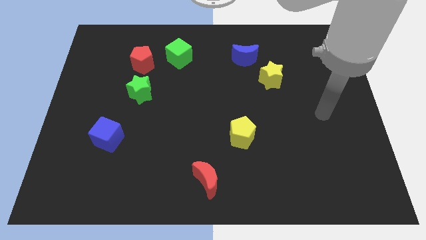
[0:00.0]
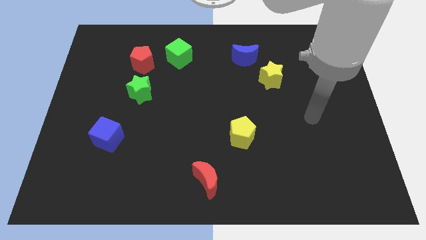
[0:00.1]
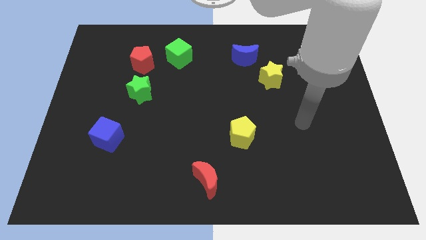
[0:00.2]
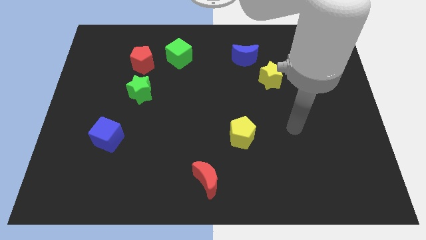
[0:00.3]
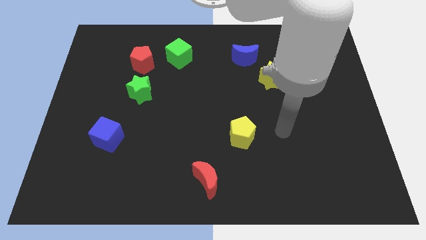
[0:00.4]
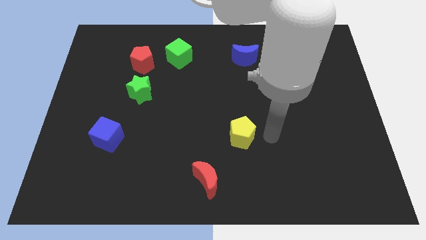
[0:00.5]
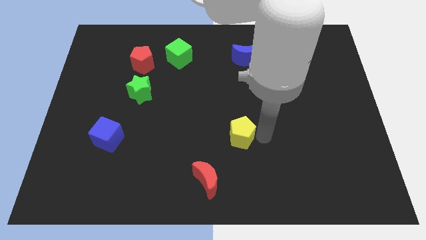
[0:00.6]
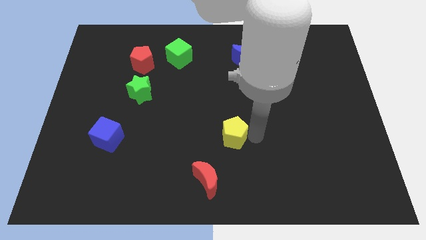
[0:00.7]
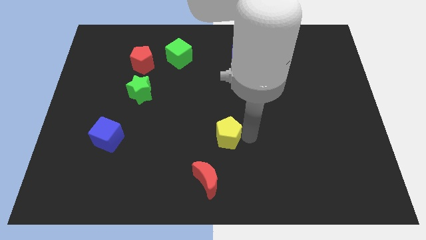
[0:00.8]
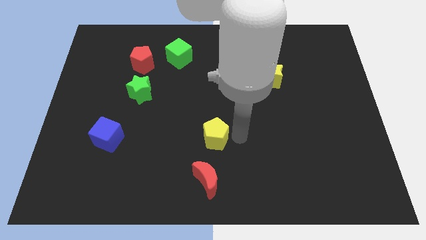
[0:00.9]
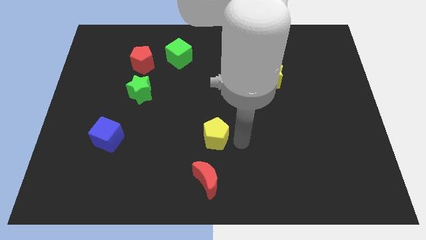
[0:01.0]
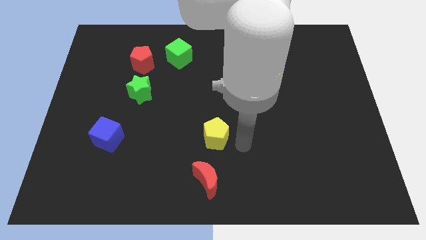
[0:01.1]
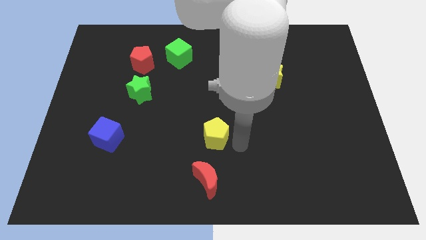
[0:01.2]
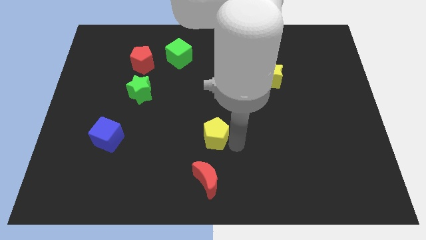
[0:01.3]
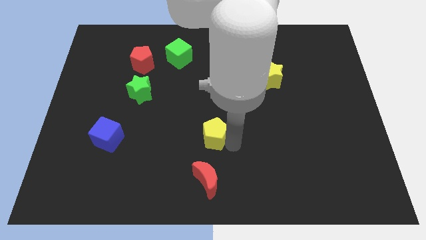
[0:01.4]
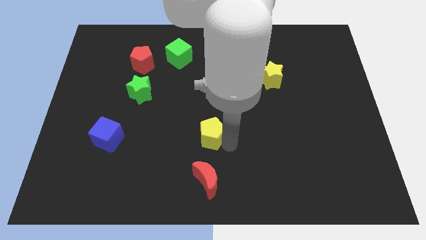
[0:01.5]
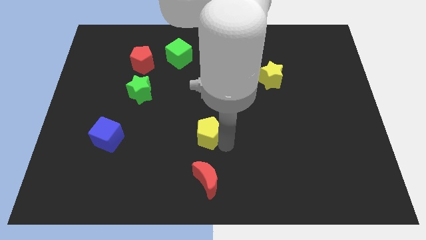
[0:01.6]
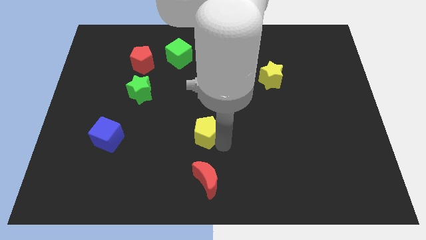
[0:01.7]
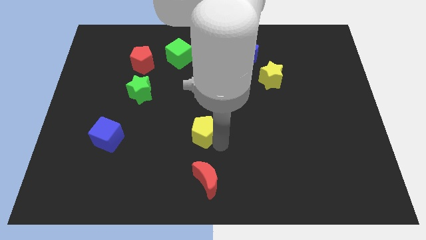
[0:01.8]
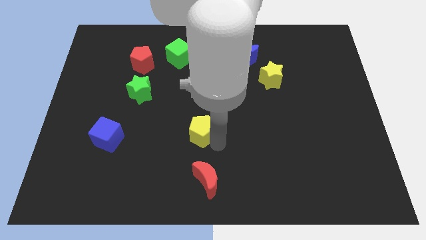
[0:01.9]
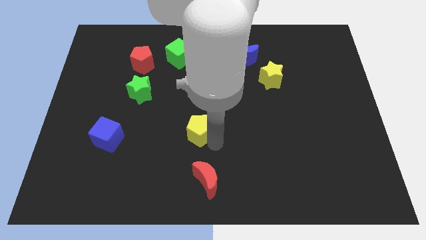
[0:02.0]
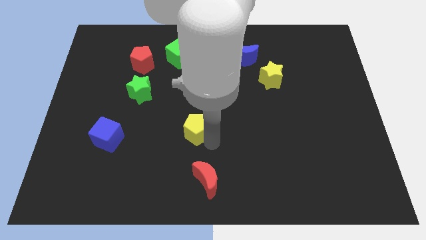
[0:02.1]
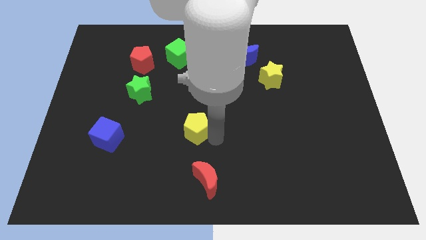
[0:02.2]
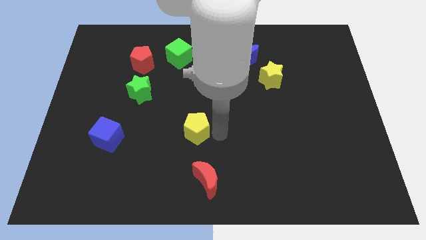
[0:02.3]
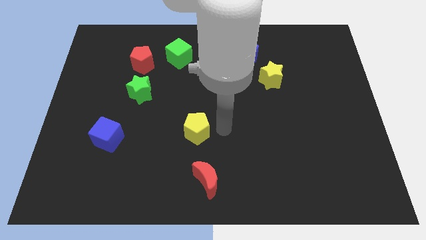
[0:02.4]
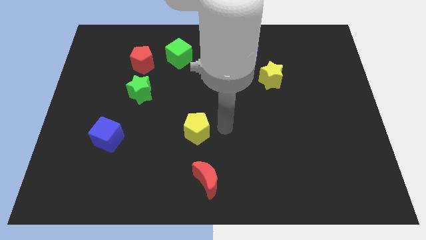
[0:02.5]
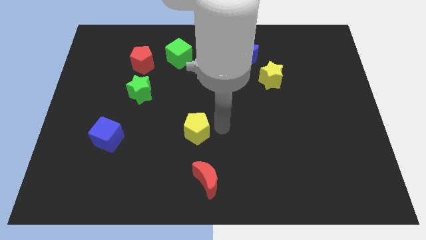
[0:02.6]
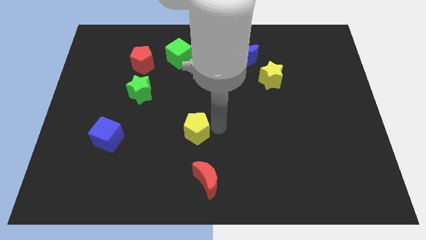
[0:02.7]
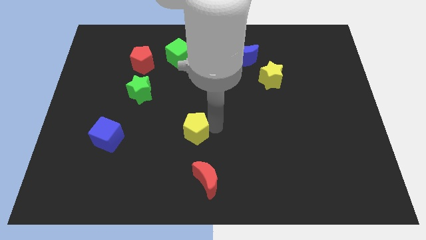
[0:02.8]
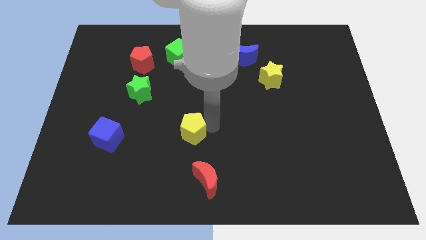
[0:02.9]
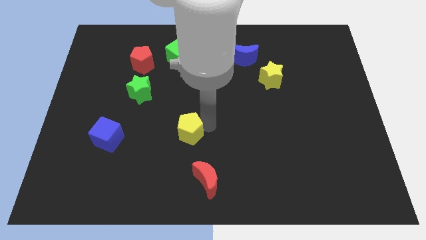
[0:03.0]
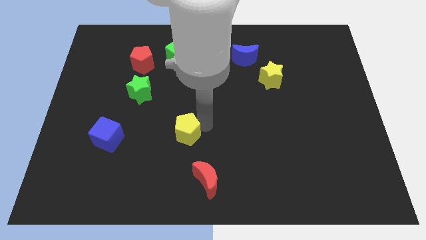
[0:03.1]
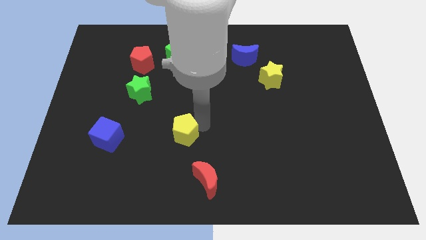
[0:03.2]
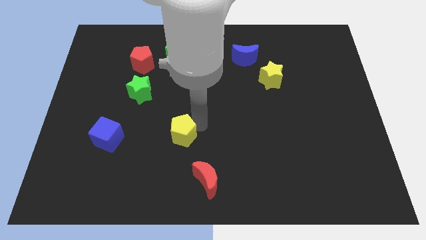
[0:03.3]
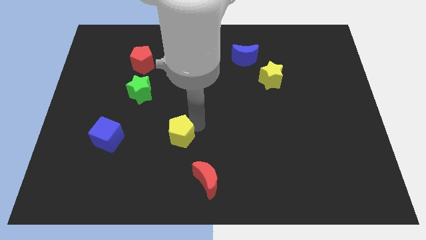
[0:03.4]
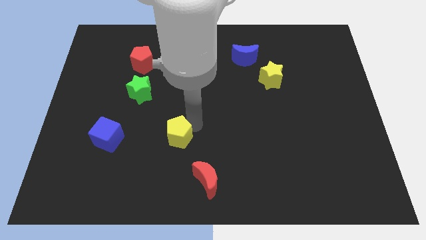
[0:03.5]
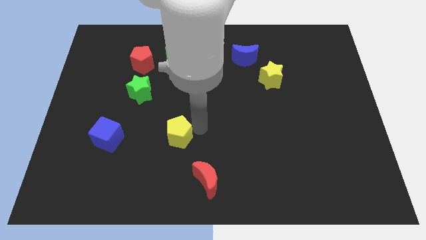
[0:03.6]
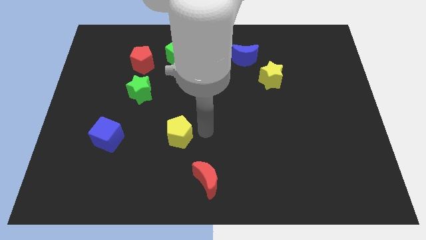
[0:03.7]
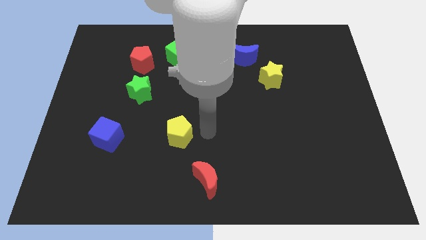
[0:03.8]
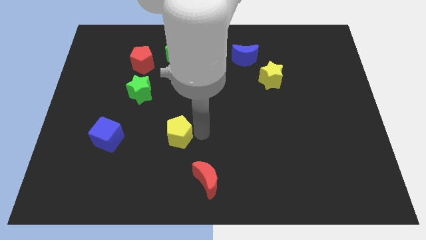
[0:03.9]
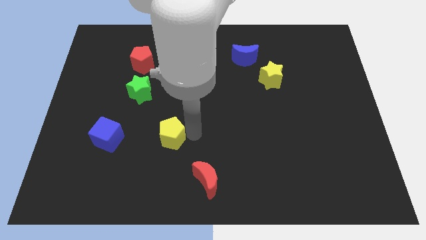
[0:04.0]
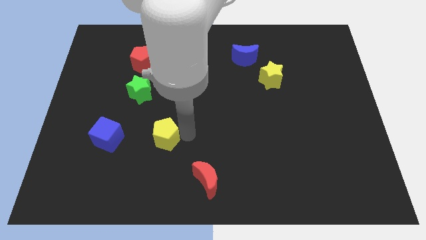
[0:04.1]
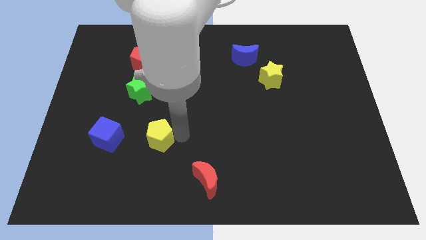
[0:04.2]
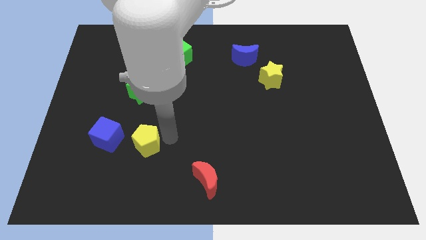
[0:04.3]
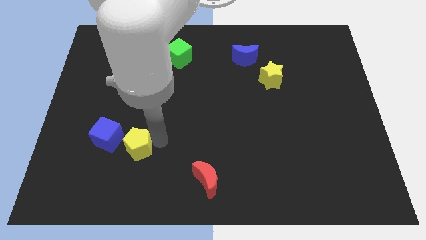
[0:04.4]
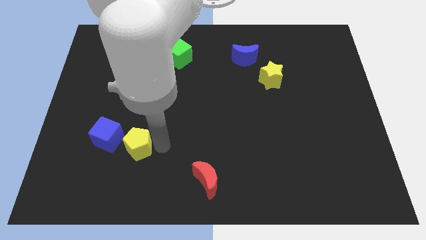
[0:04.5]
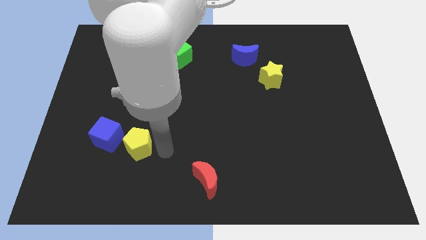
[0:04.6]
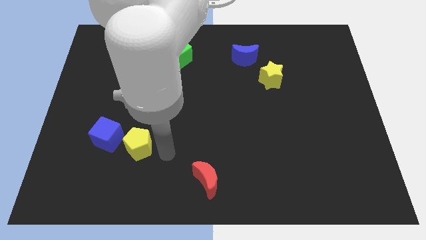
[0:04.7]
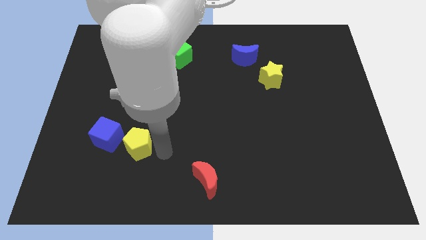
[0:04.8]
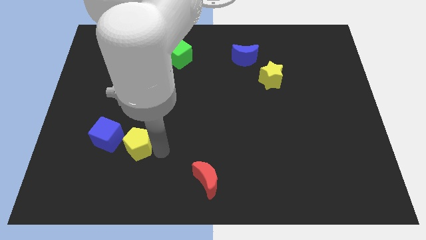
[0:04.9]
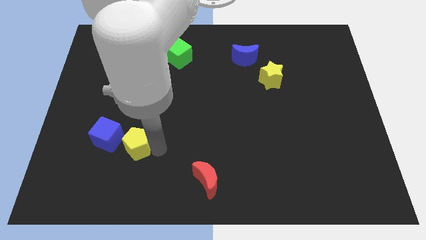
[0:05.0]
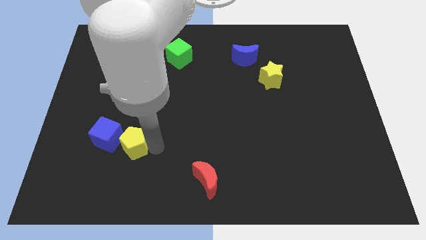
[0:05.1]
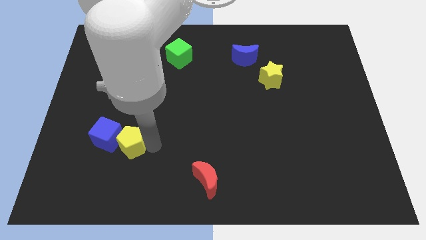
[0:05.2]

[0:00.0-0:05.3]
slide the yellow pentagon close to the blue cube

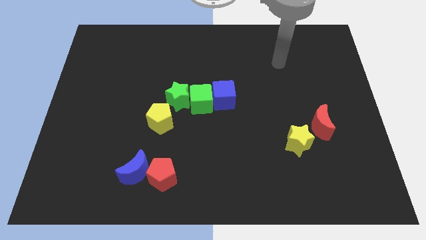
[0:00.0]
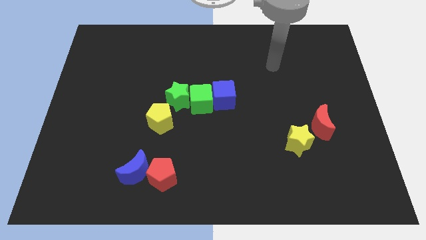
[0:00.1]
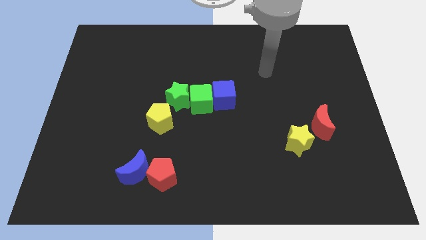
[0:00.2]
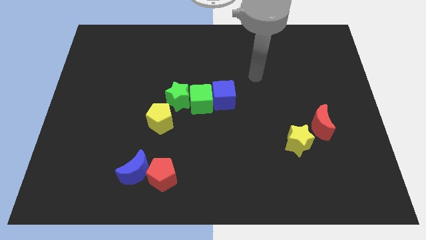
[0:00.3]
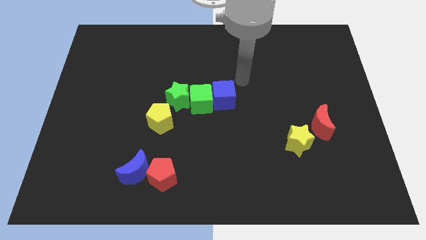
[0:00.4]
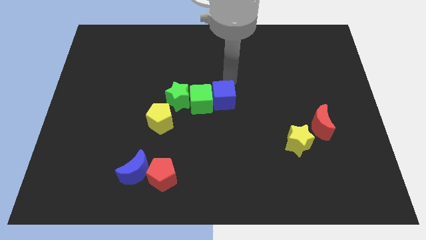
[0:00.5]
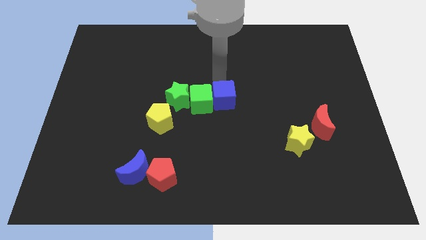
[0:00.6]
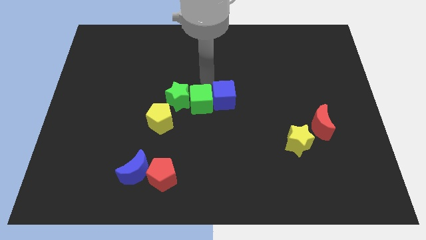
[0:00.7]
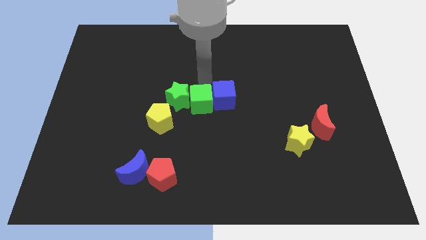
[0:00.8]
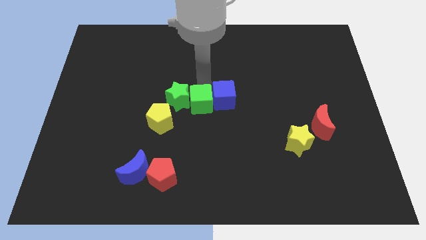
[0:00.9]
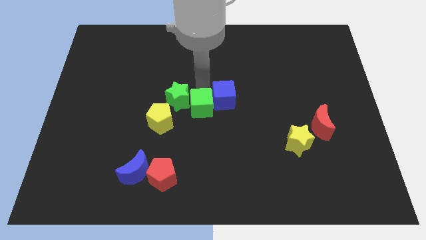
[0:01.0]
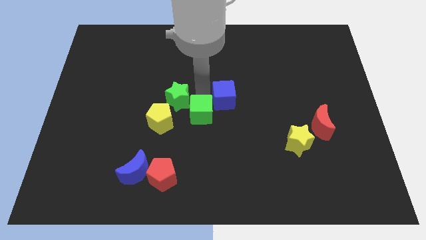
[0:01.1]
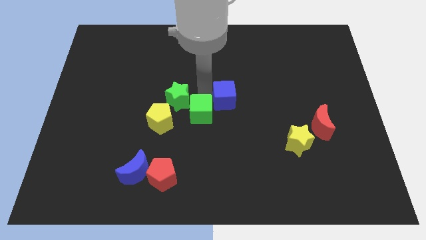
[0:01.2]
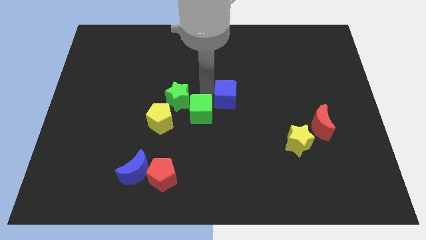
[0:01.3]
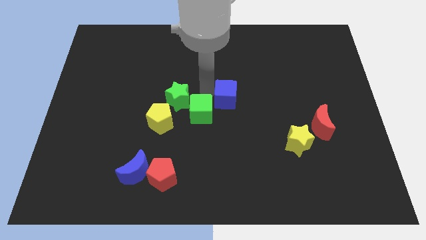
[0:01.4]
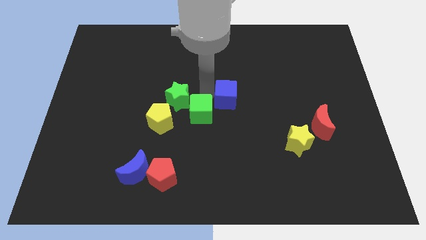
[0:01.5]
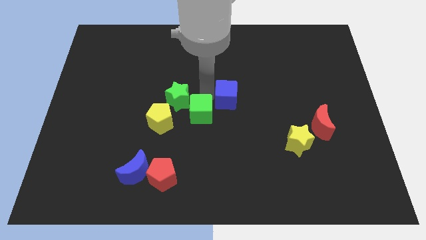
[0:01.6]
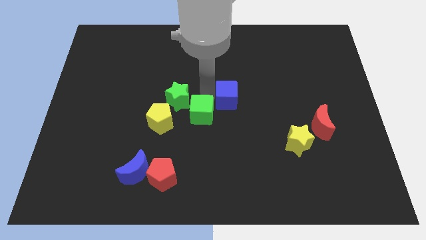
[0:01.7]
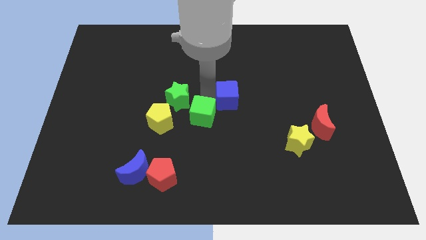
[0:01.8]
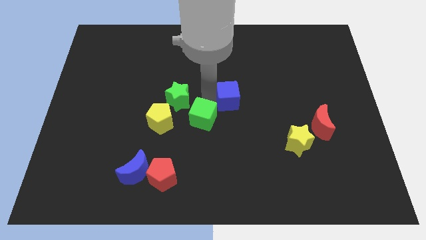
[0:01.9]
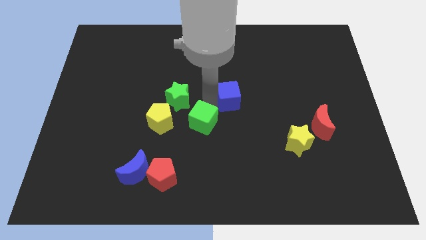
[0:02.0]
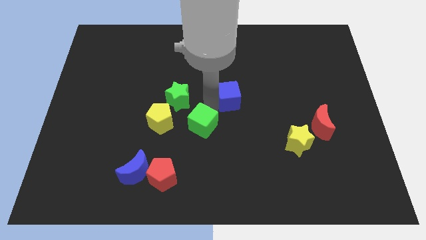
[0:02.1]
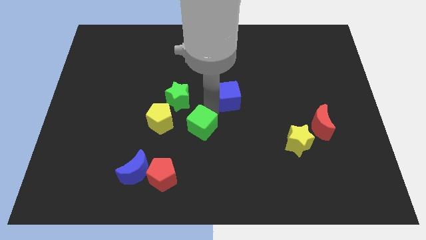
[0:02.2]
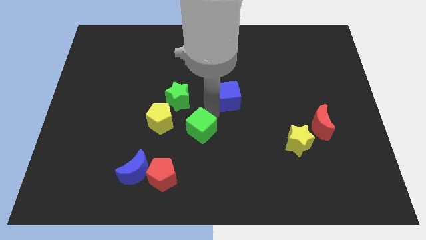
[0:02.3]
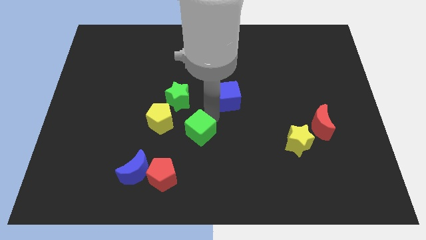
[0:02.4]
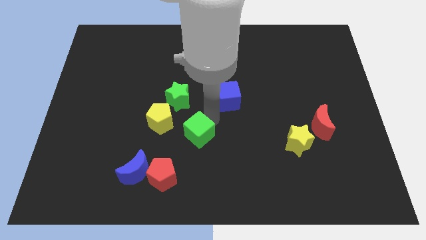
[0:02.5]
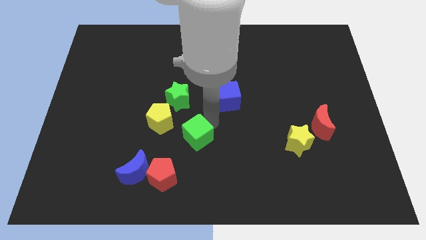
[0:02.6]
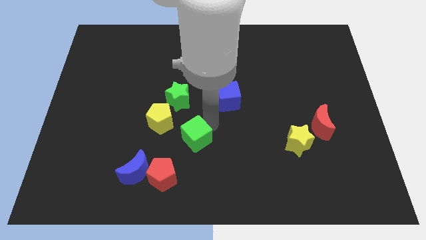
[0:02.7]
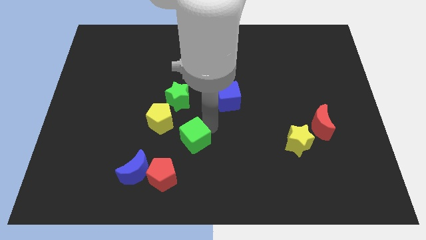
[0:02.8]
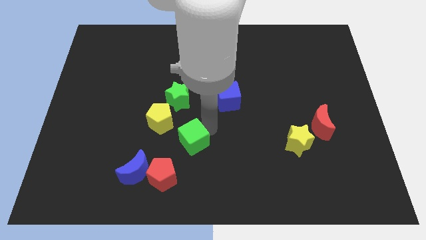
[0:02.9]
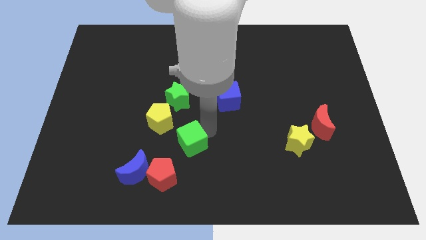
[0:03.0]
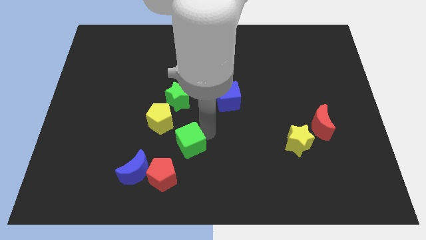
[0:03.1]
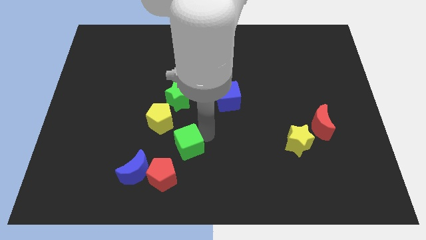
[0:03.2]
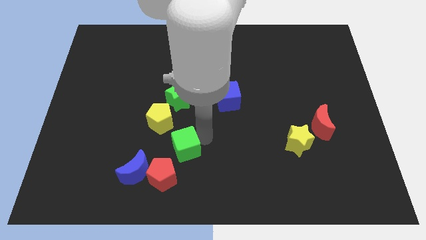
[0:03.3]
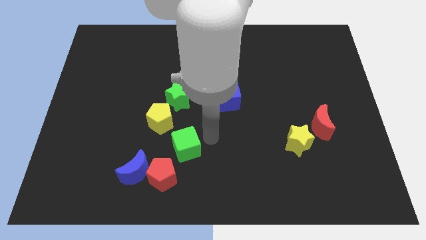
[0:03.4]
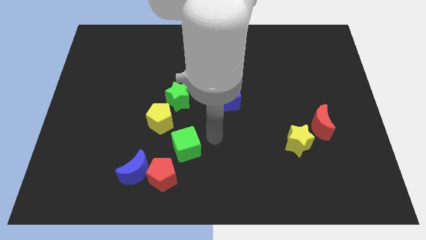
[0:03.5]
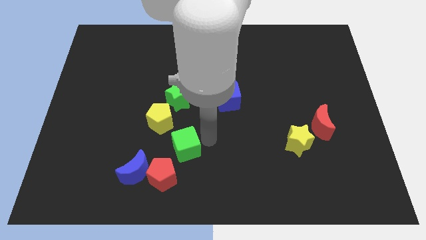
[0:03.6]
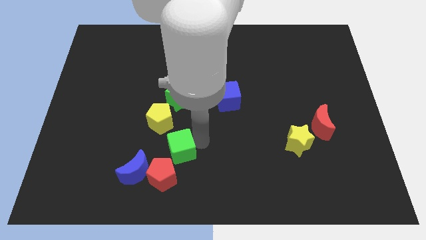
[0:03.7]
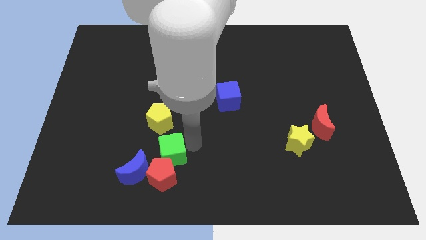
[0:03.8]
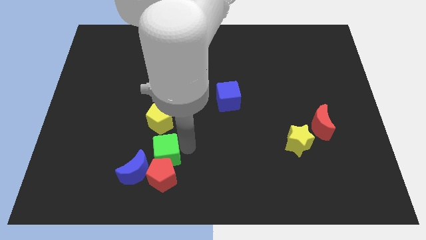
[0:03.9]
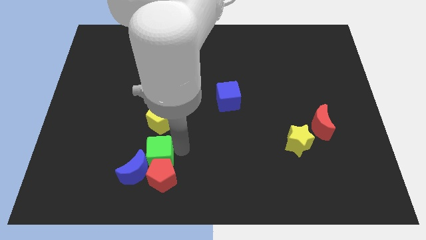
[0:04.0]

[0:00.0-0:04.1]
slide the green cube towards the blue moon
